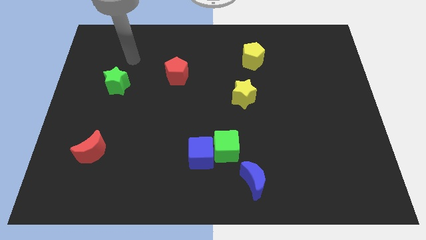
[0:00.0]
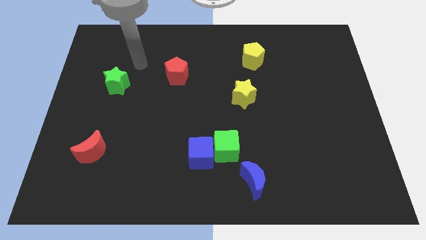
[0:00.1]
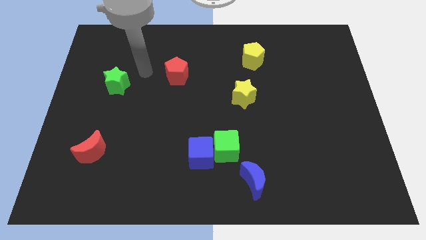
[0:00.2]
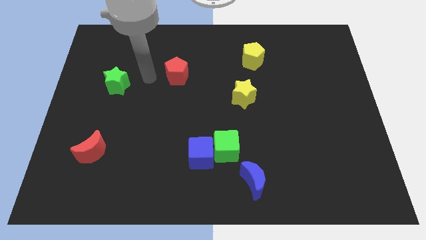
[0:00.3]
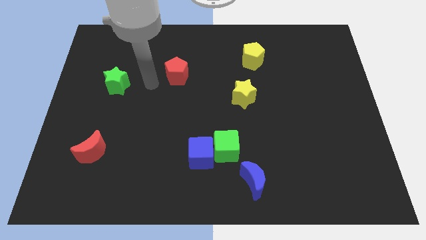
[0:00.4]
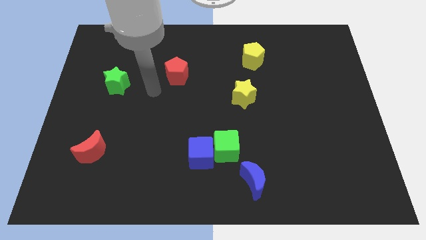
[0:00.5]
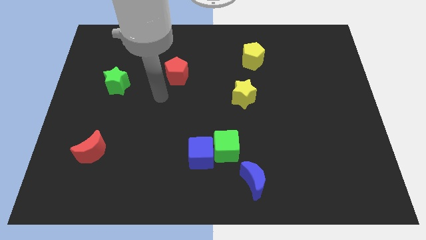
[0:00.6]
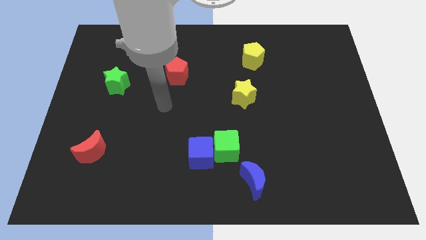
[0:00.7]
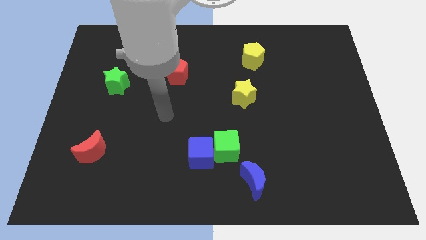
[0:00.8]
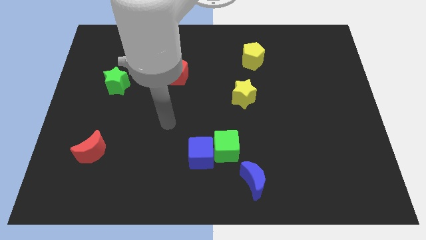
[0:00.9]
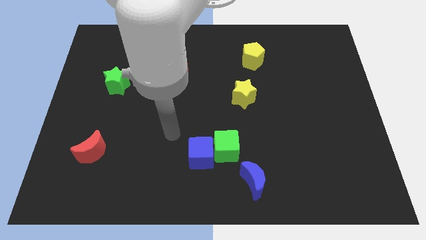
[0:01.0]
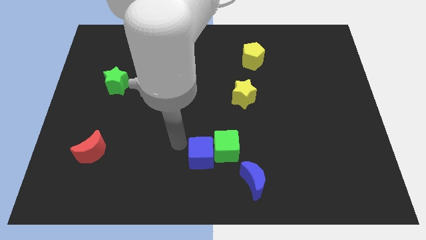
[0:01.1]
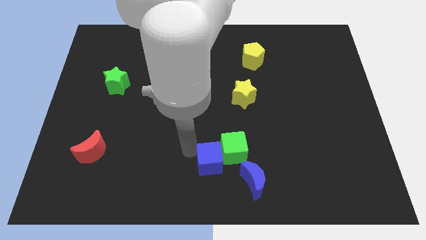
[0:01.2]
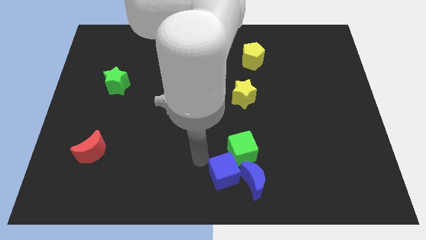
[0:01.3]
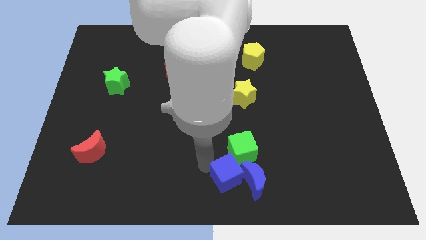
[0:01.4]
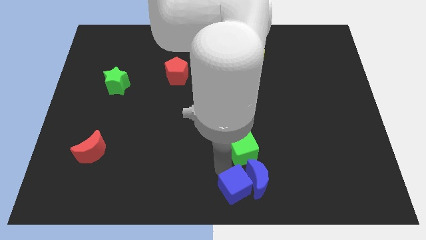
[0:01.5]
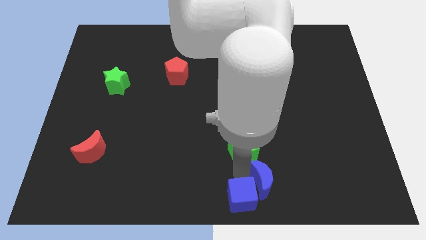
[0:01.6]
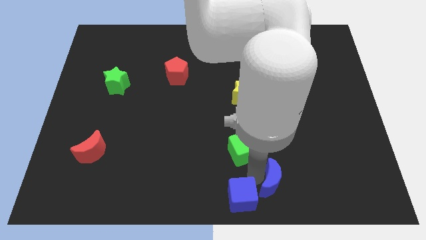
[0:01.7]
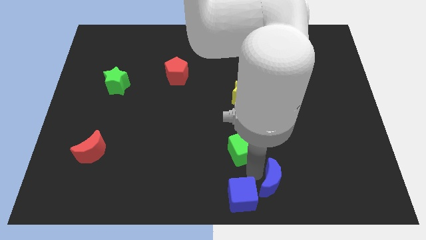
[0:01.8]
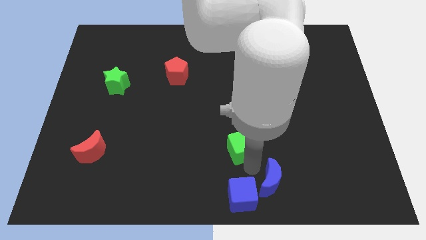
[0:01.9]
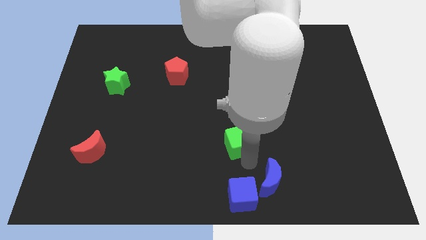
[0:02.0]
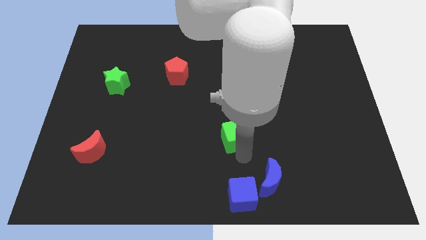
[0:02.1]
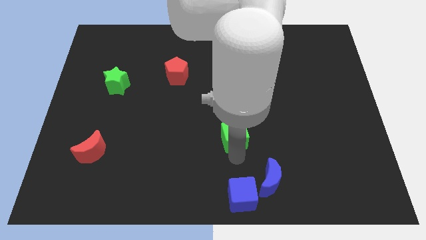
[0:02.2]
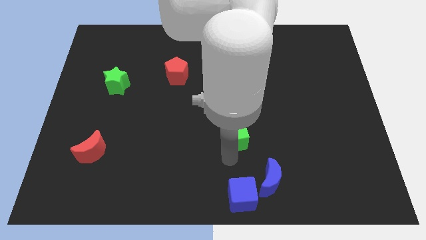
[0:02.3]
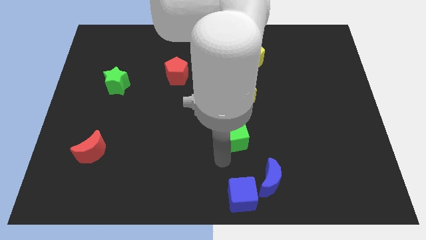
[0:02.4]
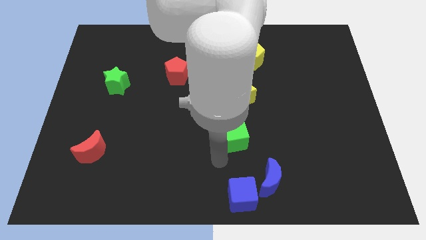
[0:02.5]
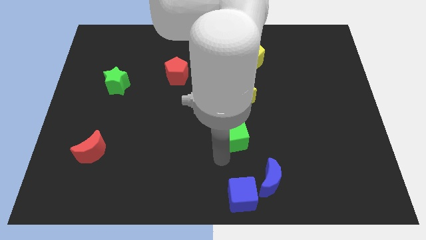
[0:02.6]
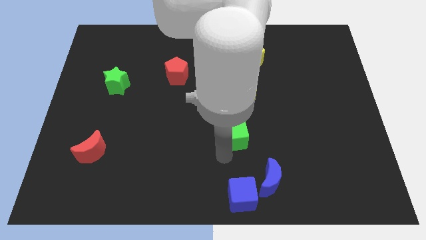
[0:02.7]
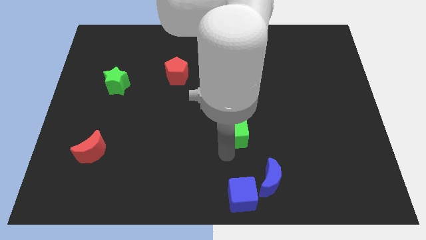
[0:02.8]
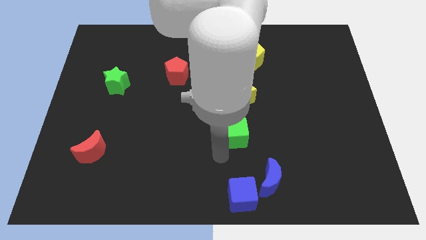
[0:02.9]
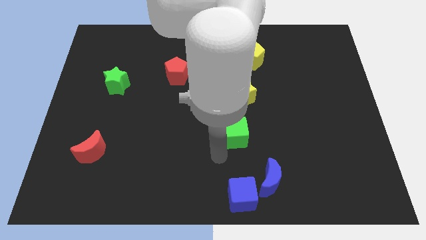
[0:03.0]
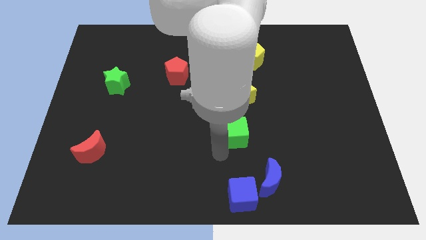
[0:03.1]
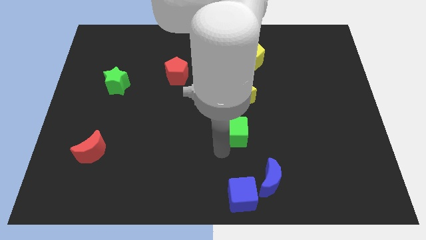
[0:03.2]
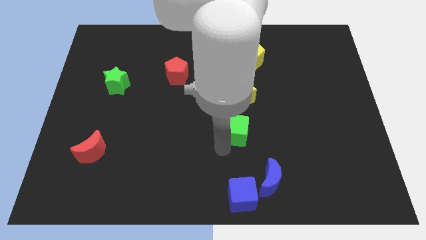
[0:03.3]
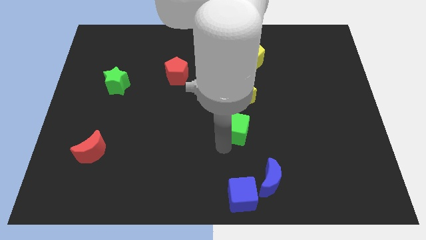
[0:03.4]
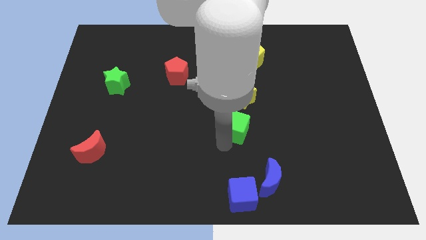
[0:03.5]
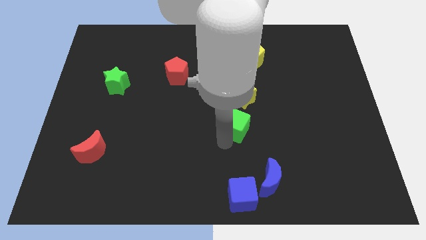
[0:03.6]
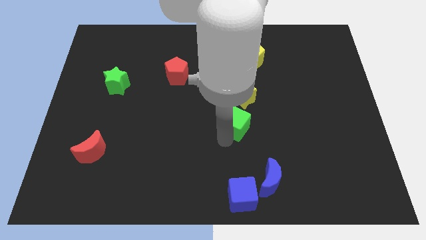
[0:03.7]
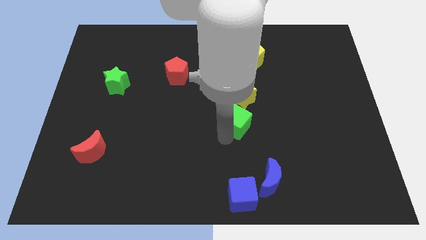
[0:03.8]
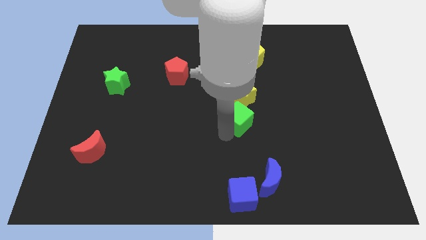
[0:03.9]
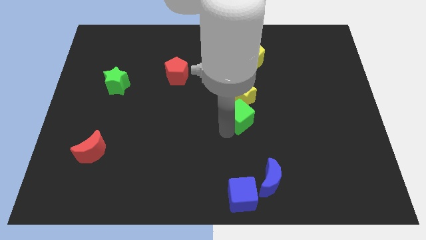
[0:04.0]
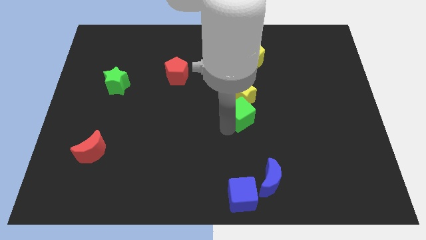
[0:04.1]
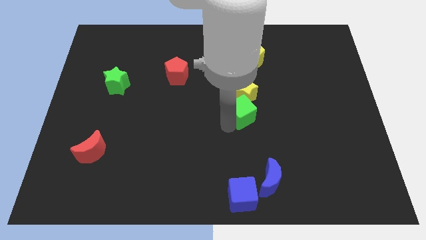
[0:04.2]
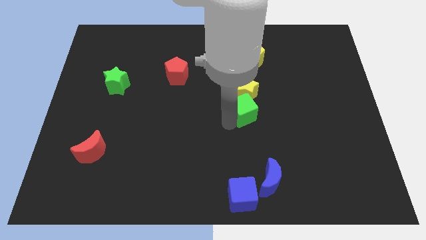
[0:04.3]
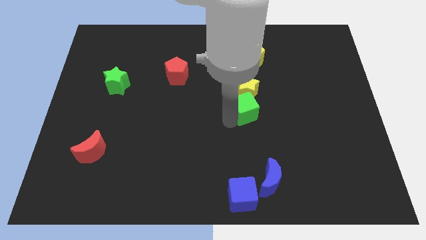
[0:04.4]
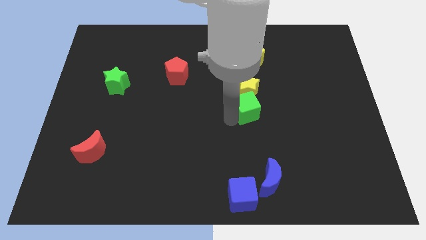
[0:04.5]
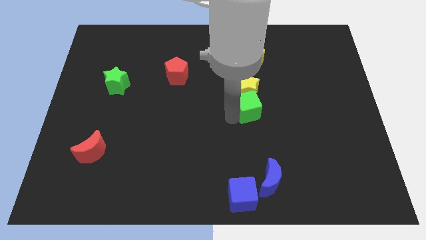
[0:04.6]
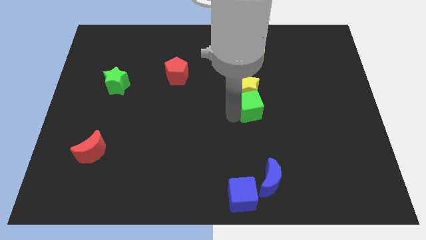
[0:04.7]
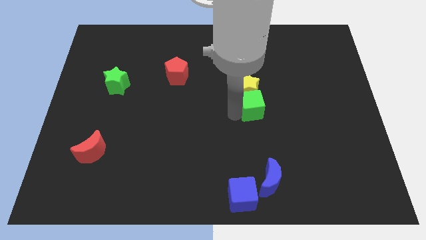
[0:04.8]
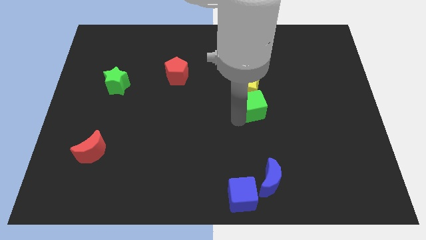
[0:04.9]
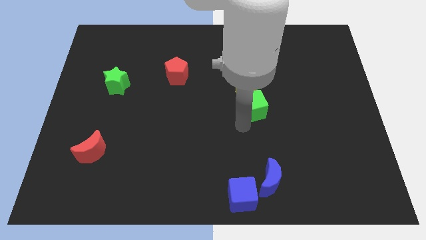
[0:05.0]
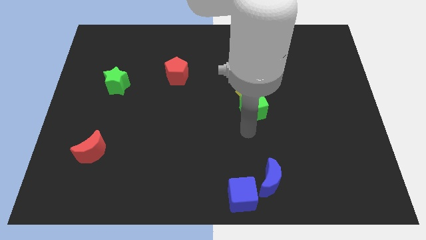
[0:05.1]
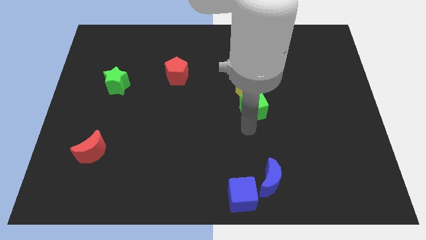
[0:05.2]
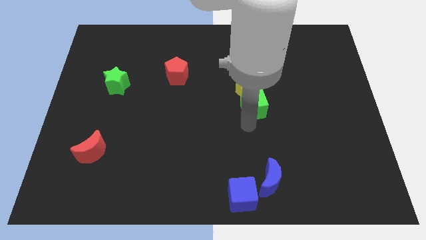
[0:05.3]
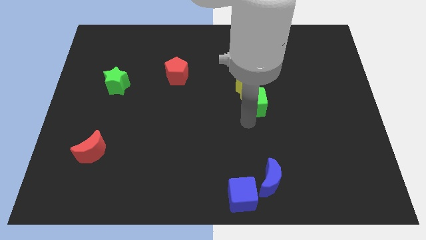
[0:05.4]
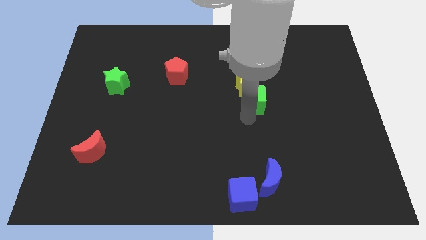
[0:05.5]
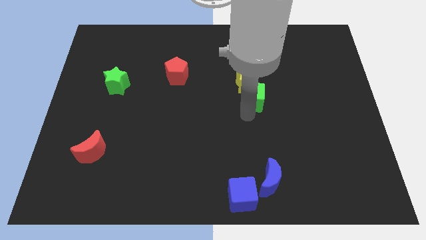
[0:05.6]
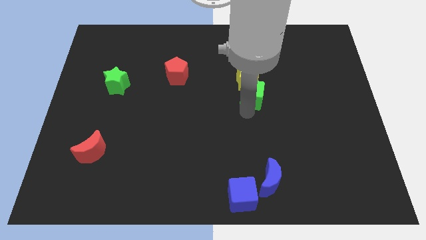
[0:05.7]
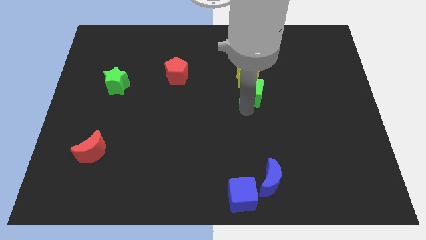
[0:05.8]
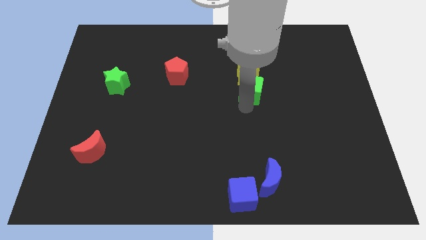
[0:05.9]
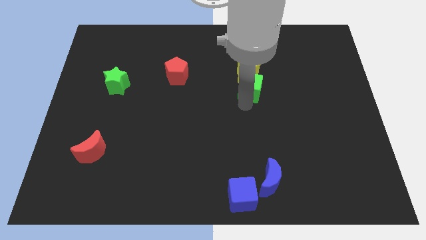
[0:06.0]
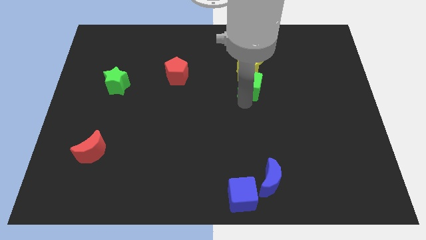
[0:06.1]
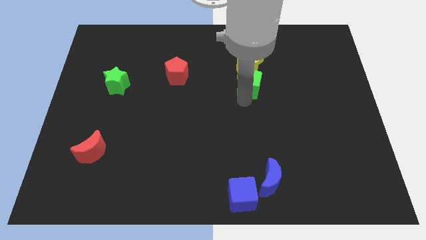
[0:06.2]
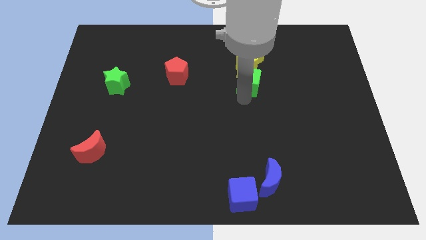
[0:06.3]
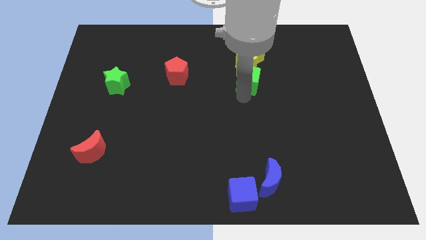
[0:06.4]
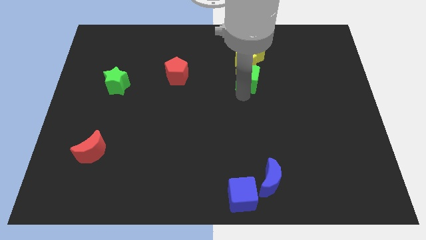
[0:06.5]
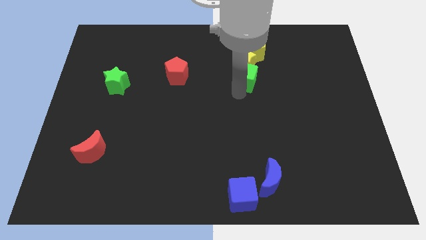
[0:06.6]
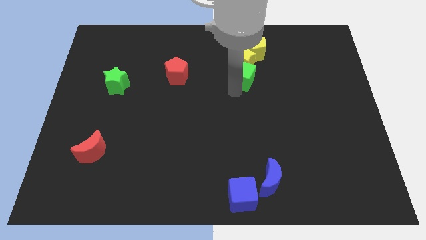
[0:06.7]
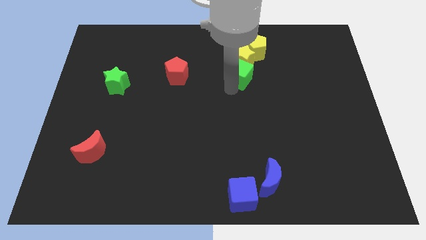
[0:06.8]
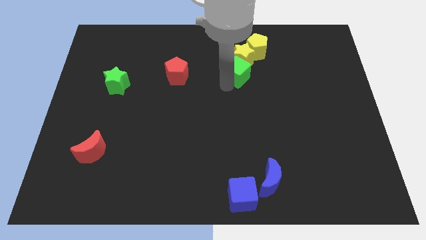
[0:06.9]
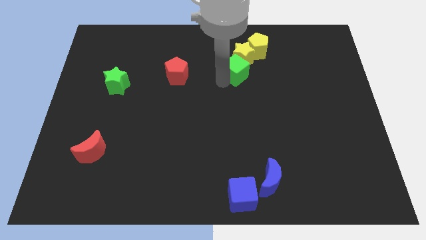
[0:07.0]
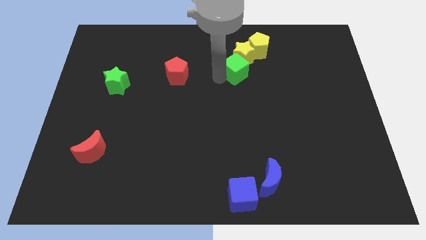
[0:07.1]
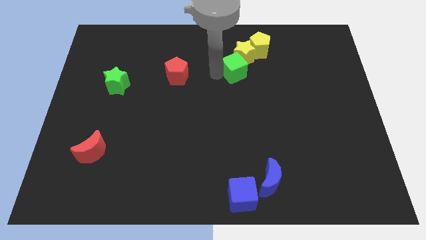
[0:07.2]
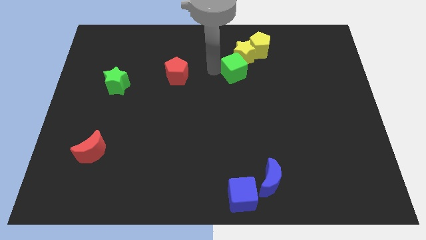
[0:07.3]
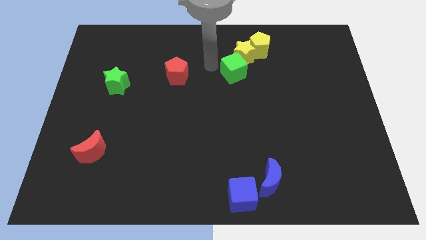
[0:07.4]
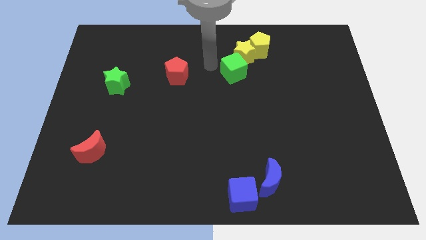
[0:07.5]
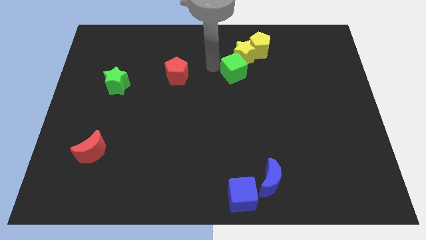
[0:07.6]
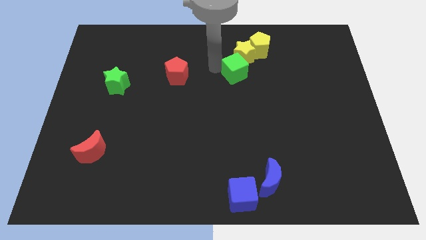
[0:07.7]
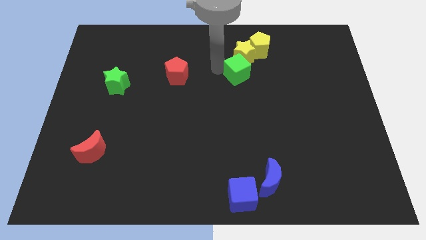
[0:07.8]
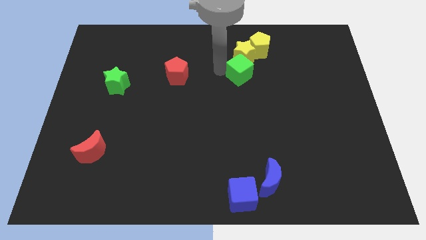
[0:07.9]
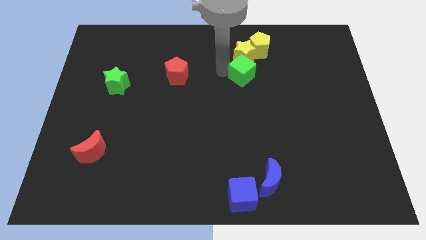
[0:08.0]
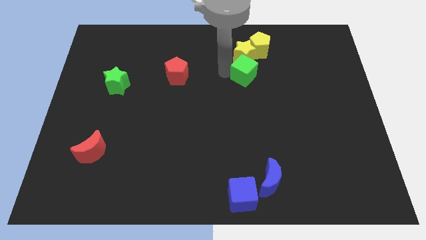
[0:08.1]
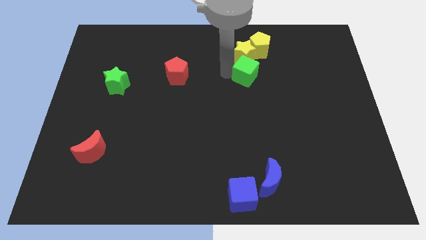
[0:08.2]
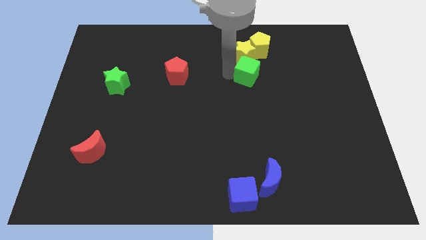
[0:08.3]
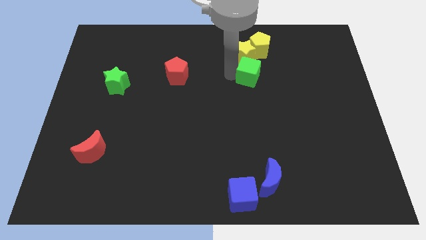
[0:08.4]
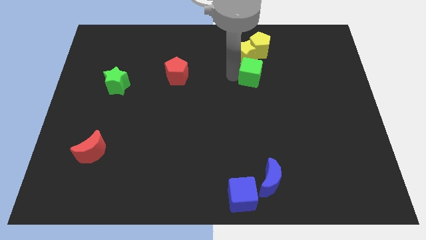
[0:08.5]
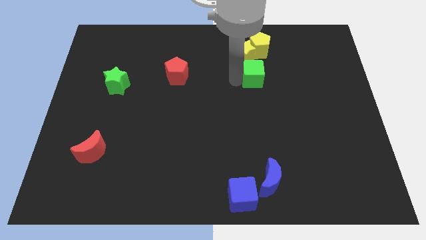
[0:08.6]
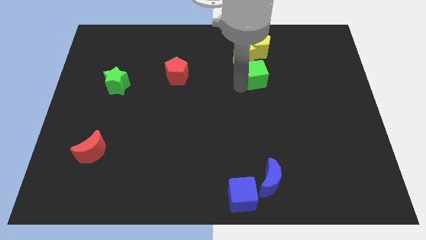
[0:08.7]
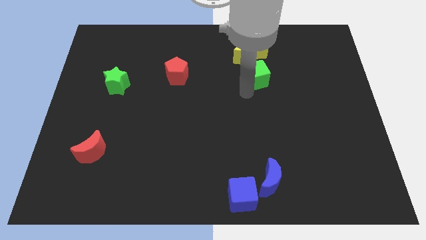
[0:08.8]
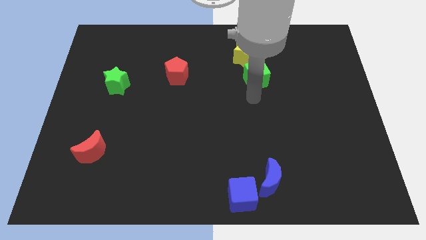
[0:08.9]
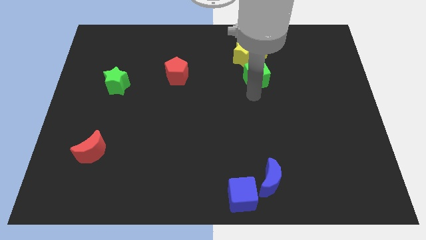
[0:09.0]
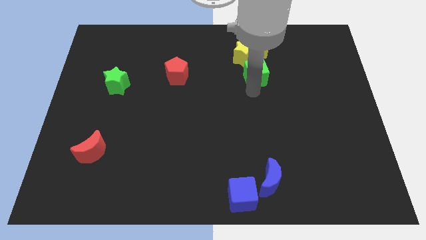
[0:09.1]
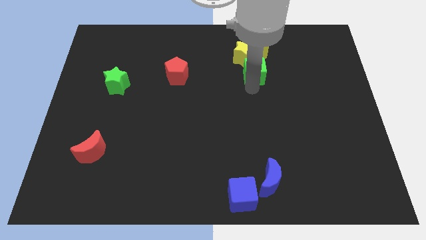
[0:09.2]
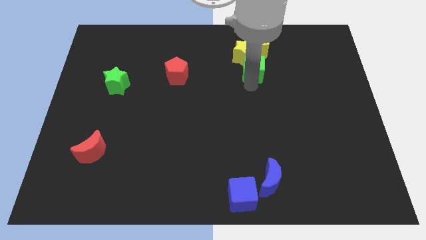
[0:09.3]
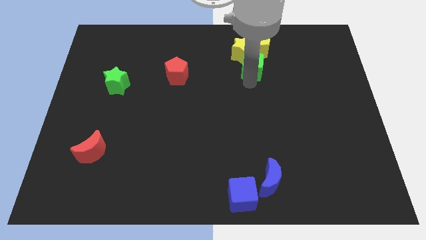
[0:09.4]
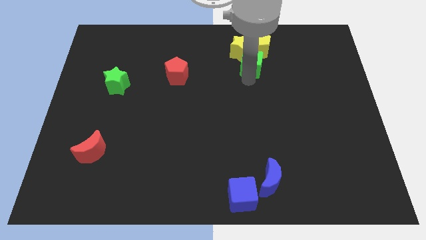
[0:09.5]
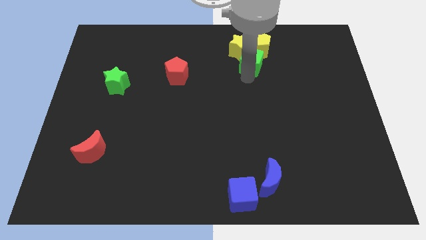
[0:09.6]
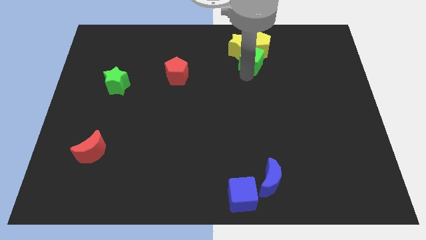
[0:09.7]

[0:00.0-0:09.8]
put the green cube close to the yellow pentagon
